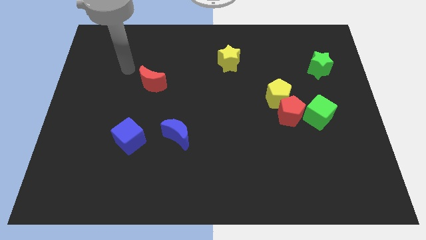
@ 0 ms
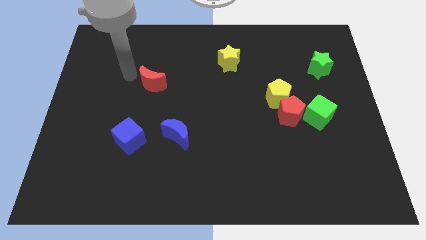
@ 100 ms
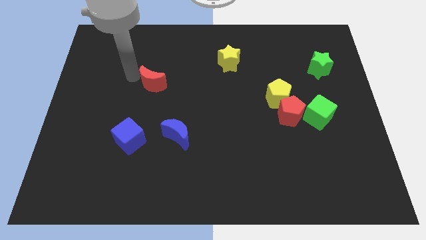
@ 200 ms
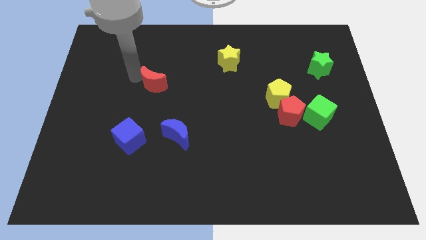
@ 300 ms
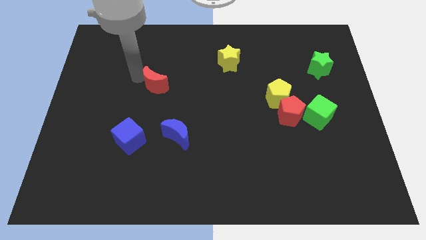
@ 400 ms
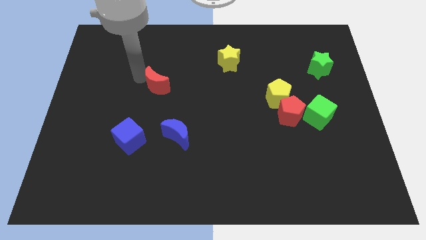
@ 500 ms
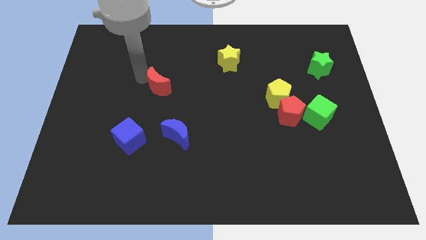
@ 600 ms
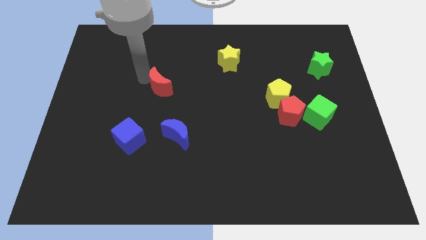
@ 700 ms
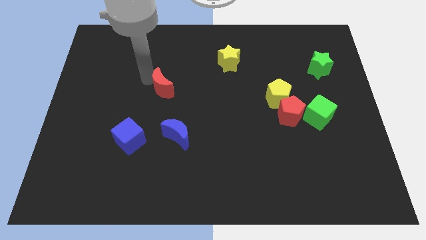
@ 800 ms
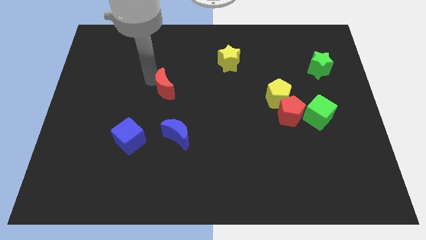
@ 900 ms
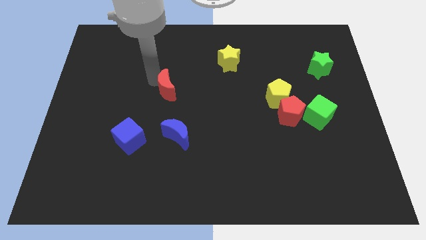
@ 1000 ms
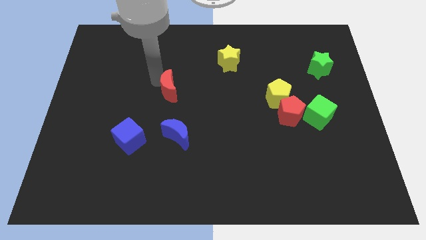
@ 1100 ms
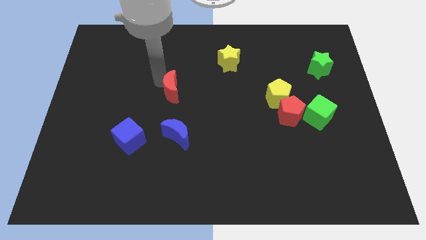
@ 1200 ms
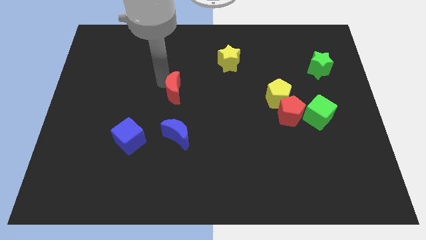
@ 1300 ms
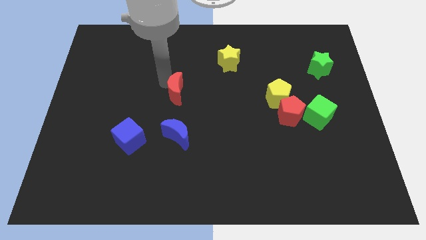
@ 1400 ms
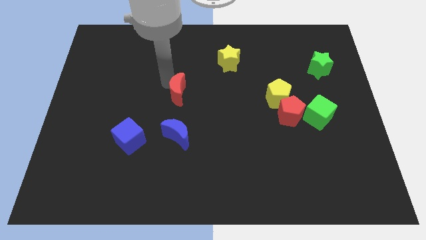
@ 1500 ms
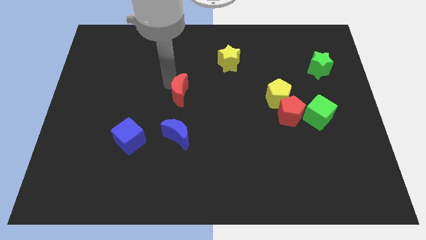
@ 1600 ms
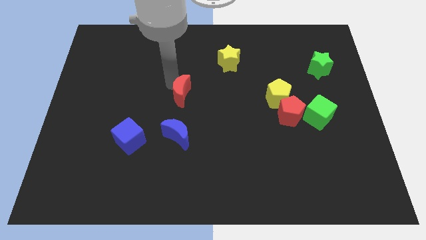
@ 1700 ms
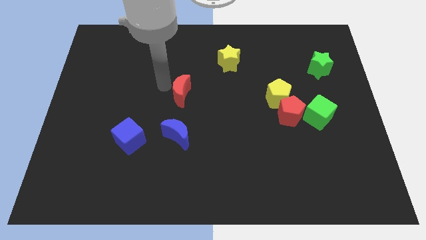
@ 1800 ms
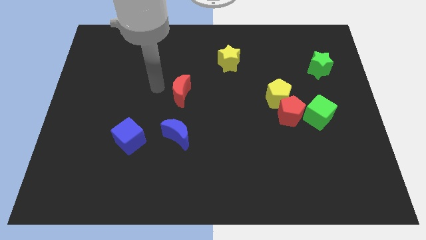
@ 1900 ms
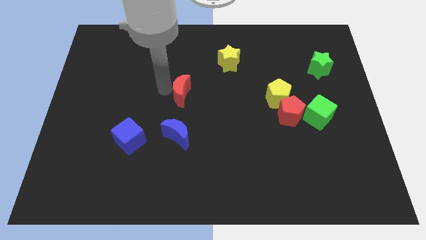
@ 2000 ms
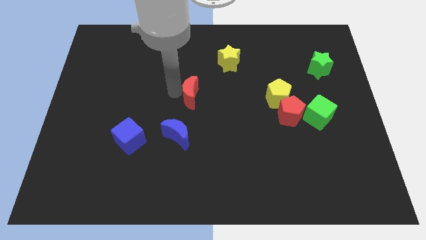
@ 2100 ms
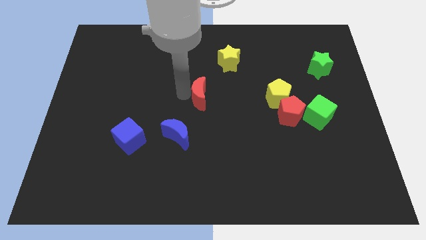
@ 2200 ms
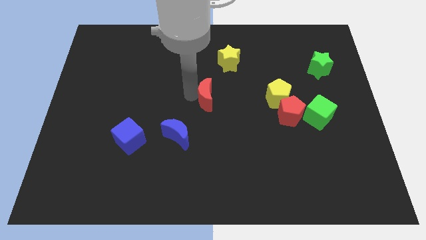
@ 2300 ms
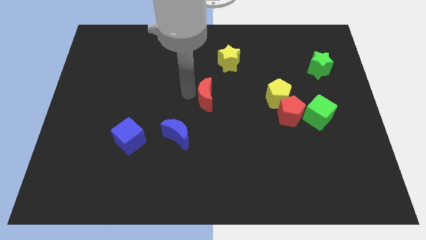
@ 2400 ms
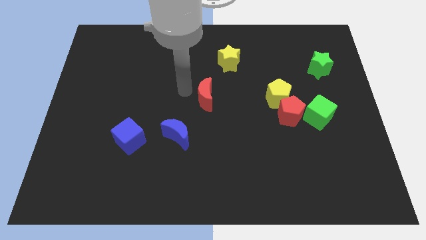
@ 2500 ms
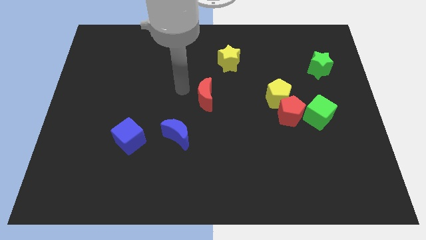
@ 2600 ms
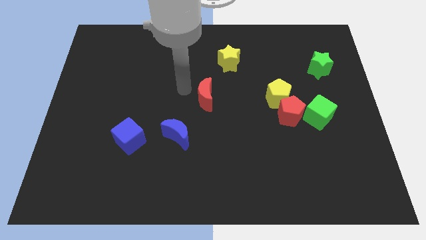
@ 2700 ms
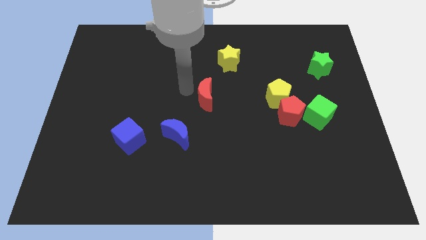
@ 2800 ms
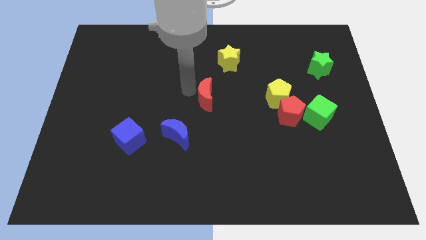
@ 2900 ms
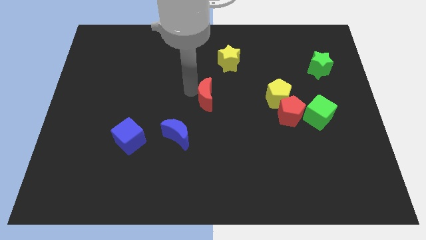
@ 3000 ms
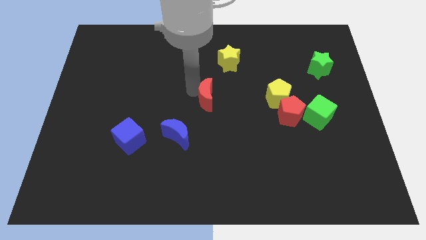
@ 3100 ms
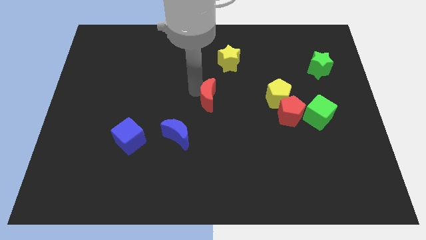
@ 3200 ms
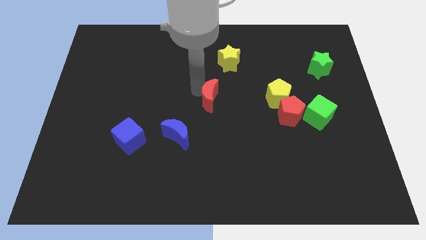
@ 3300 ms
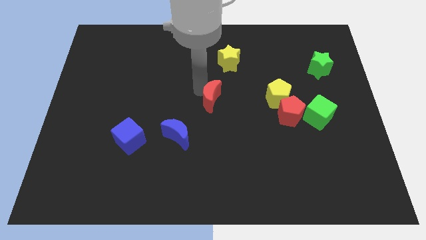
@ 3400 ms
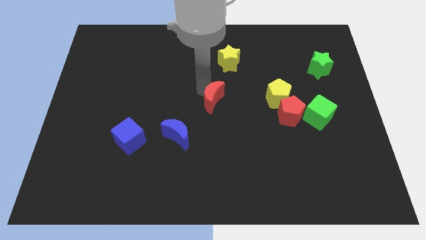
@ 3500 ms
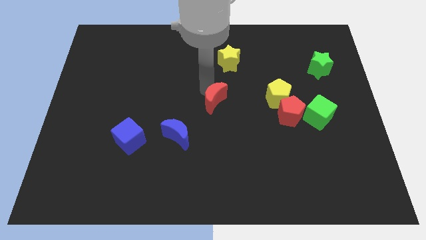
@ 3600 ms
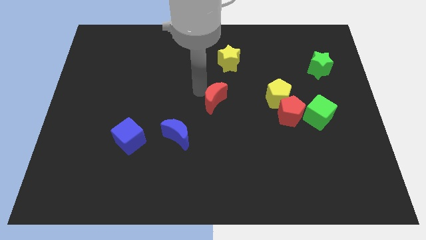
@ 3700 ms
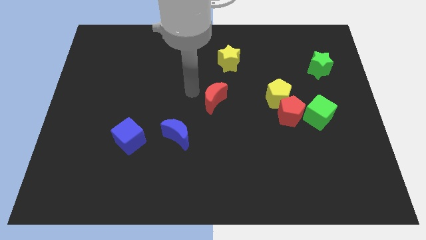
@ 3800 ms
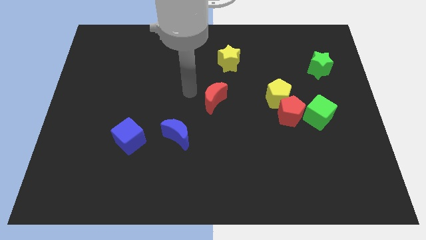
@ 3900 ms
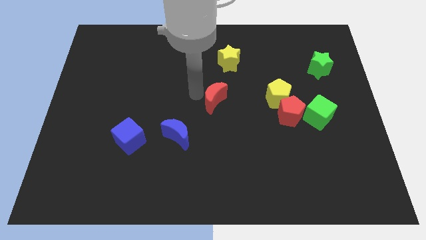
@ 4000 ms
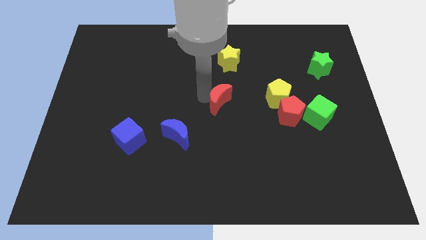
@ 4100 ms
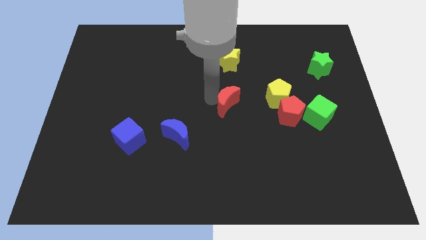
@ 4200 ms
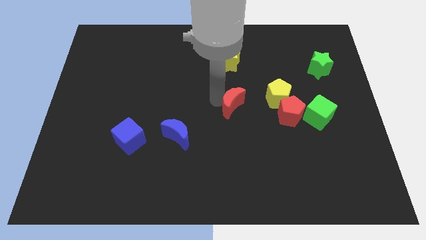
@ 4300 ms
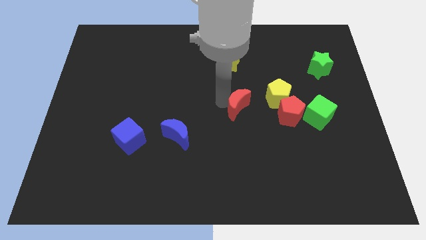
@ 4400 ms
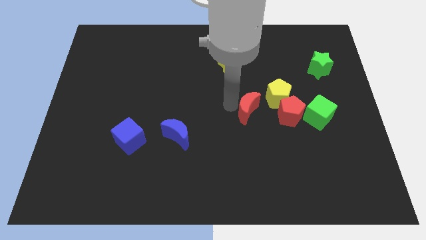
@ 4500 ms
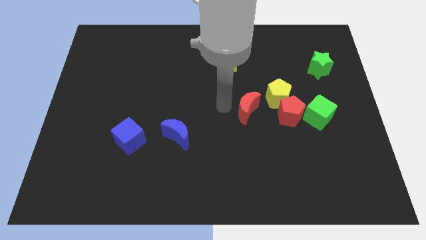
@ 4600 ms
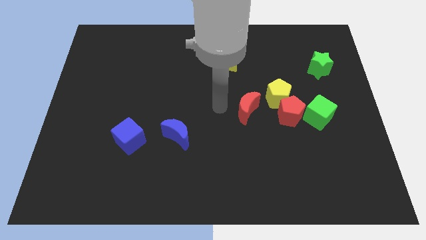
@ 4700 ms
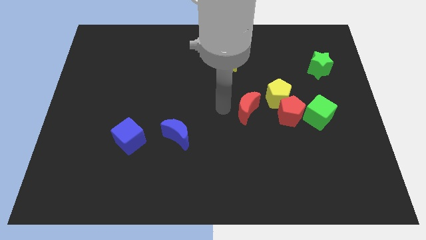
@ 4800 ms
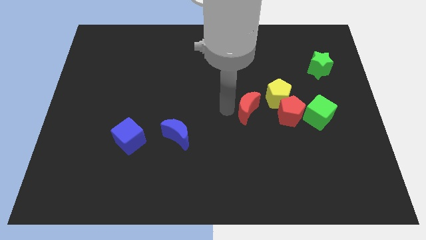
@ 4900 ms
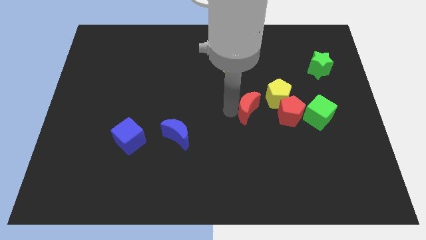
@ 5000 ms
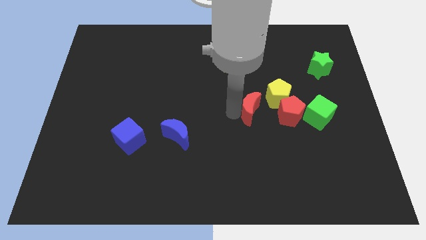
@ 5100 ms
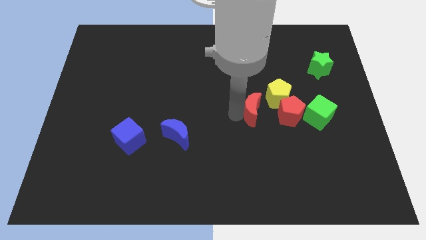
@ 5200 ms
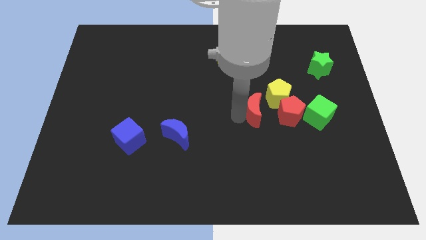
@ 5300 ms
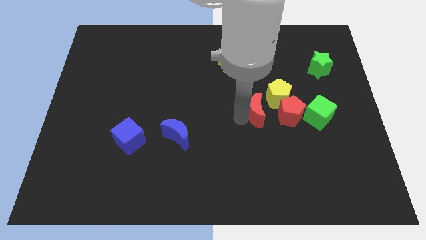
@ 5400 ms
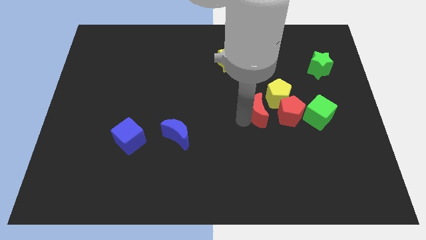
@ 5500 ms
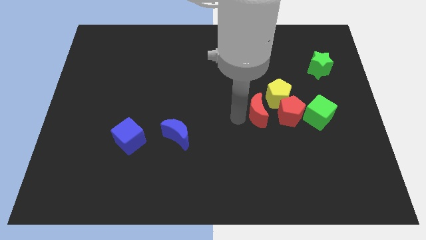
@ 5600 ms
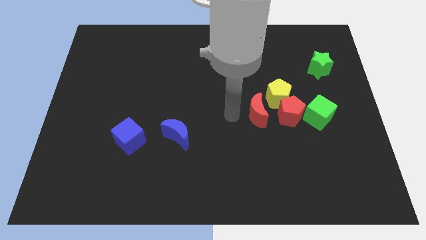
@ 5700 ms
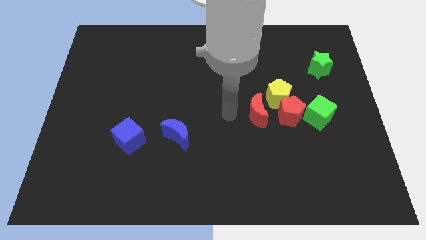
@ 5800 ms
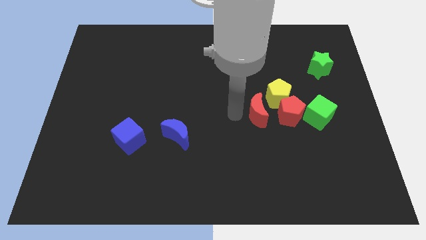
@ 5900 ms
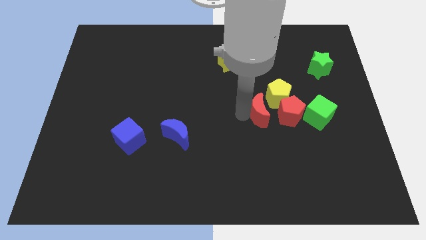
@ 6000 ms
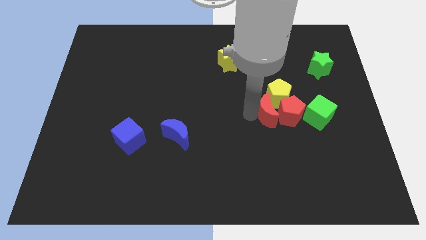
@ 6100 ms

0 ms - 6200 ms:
put the red moon next to the red pentagon

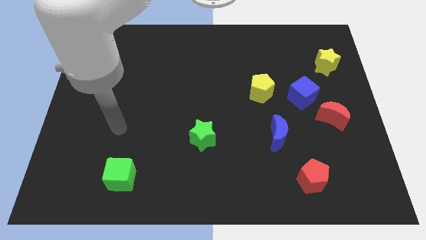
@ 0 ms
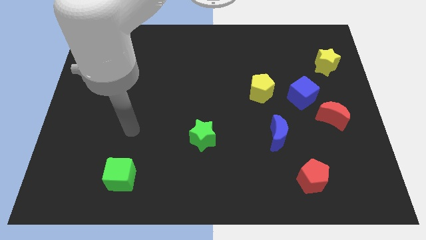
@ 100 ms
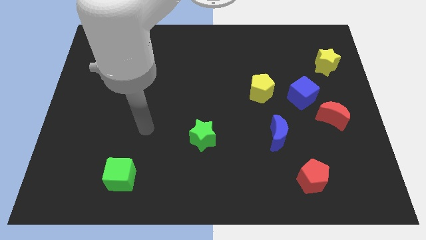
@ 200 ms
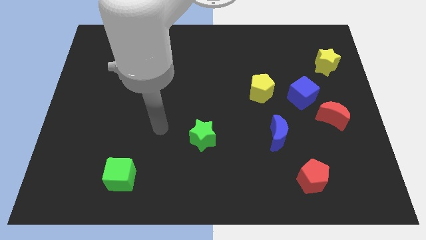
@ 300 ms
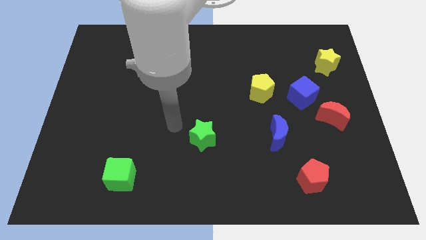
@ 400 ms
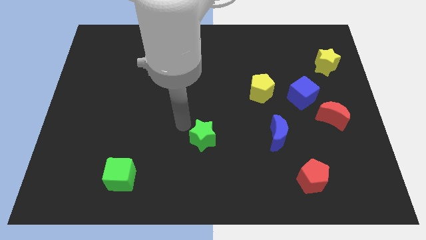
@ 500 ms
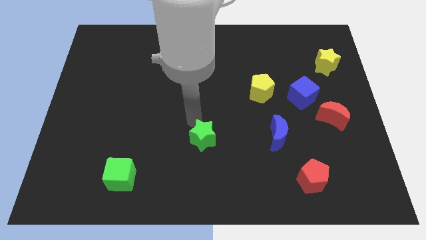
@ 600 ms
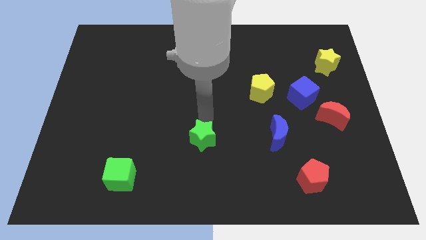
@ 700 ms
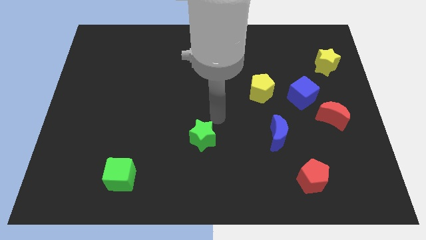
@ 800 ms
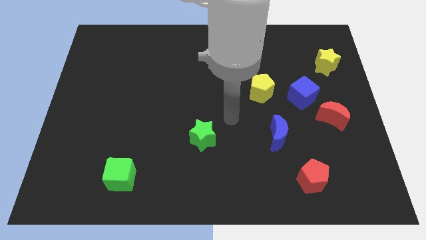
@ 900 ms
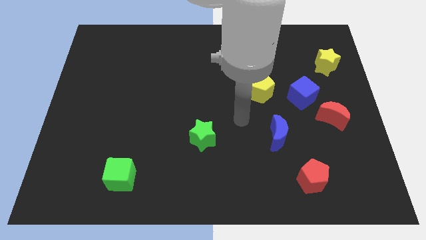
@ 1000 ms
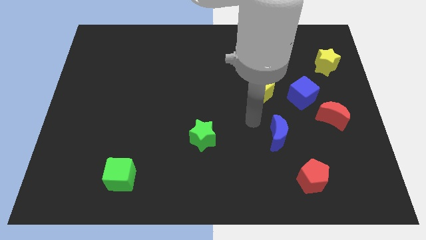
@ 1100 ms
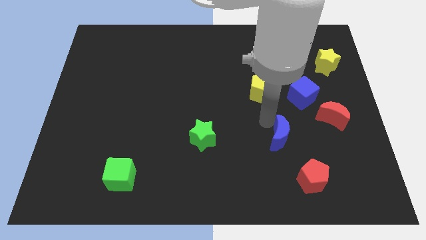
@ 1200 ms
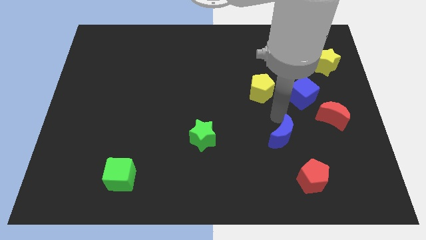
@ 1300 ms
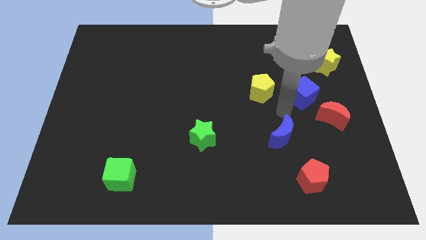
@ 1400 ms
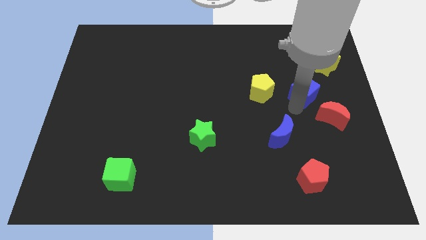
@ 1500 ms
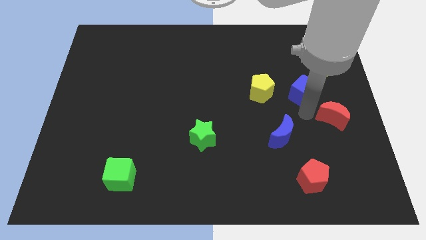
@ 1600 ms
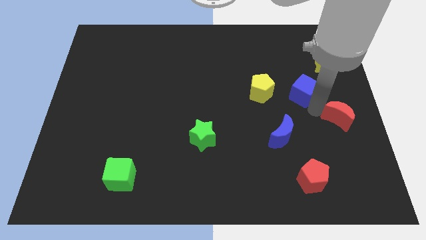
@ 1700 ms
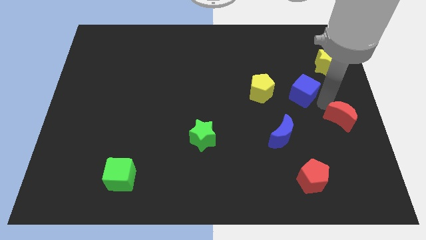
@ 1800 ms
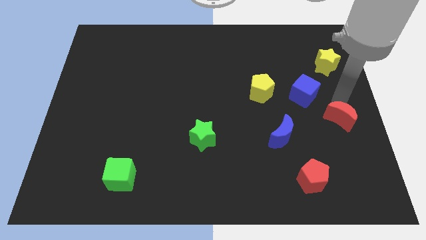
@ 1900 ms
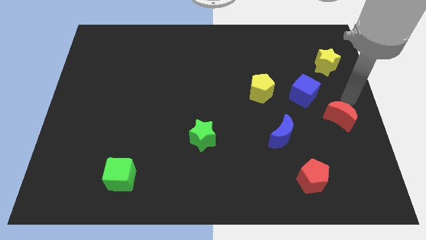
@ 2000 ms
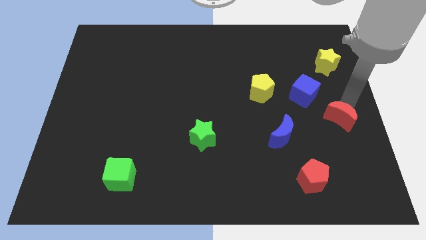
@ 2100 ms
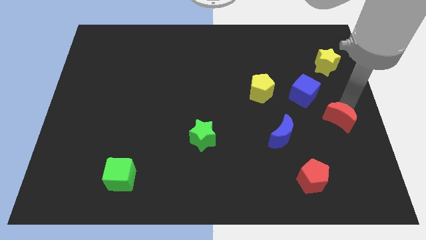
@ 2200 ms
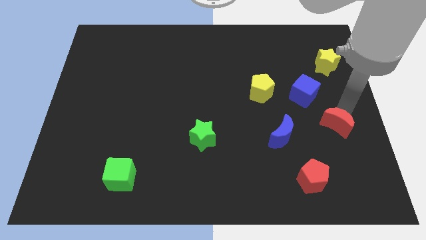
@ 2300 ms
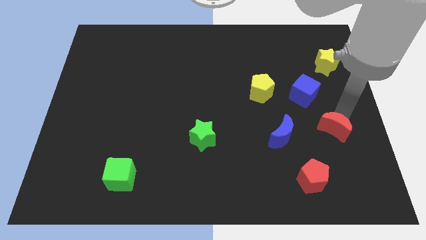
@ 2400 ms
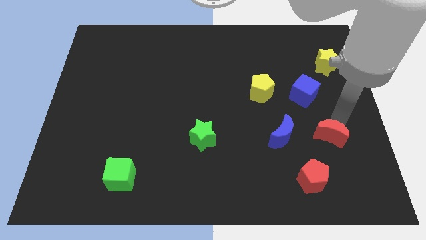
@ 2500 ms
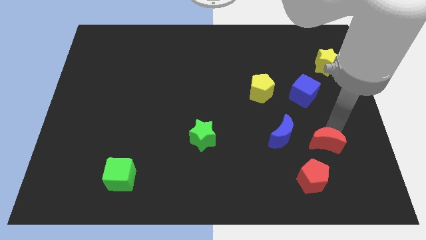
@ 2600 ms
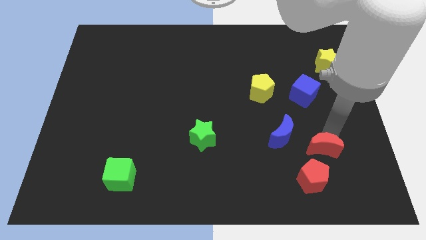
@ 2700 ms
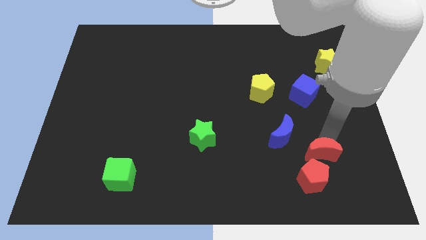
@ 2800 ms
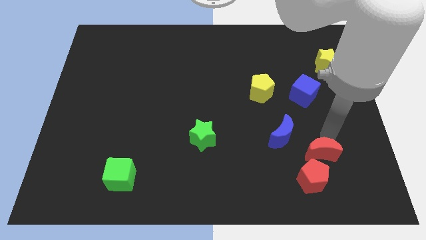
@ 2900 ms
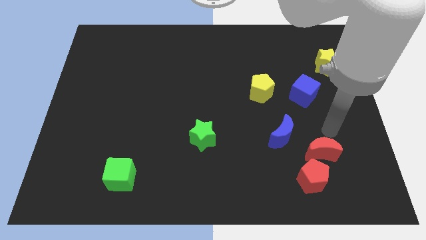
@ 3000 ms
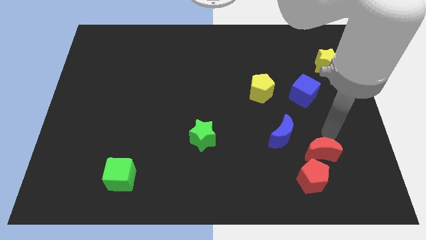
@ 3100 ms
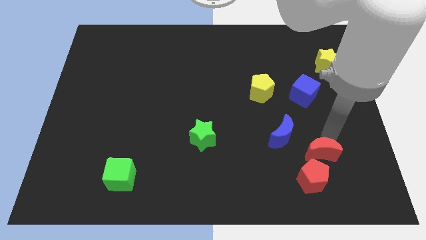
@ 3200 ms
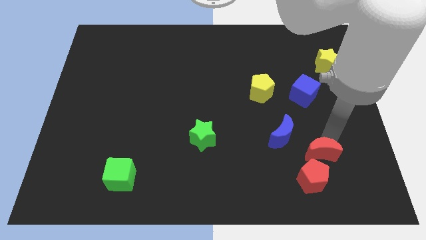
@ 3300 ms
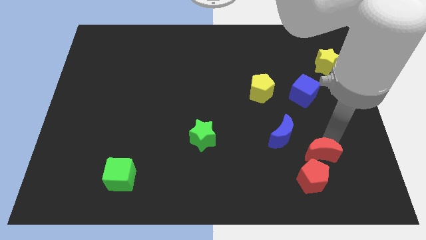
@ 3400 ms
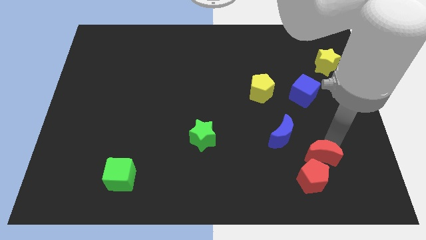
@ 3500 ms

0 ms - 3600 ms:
push the red moon to the red pentagon
